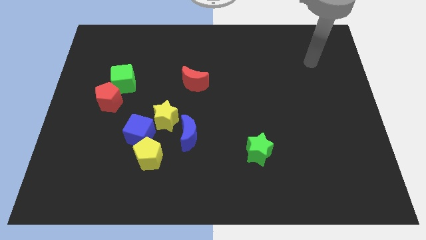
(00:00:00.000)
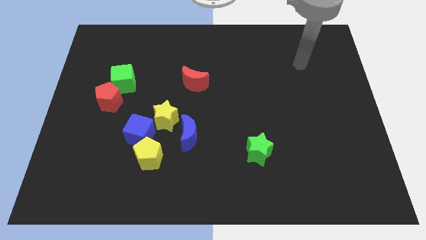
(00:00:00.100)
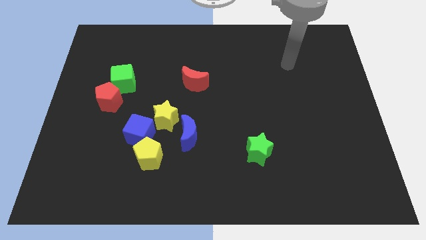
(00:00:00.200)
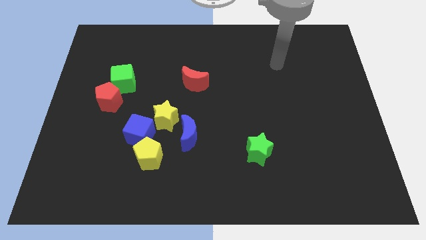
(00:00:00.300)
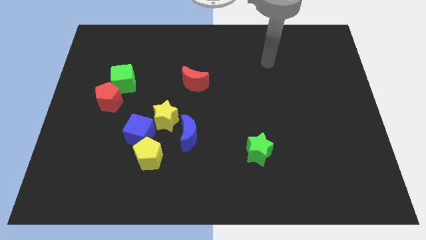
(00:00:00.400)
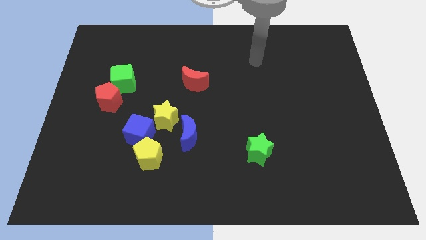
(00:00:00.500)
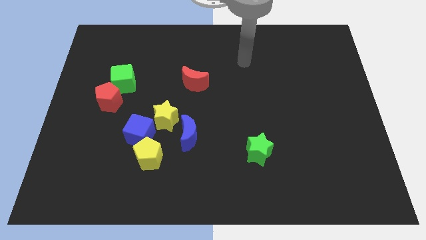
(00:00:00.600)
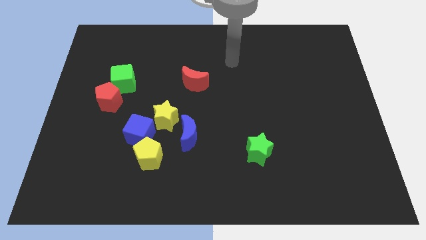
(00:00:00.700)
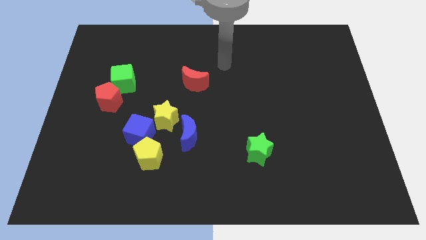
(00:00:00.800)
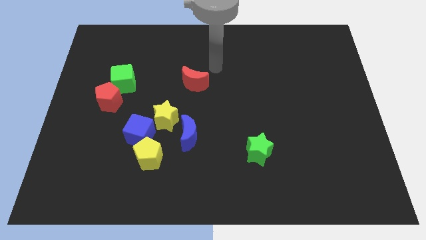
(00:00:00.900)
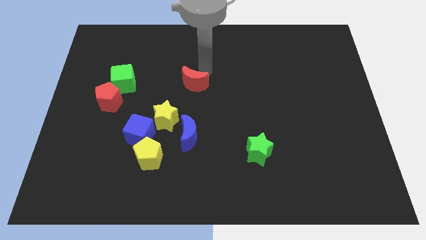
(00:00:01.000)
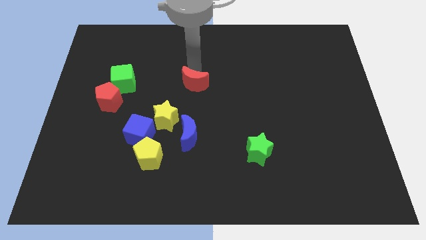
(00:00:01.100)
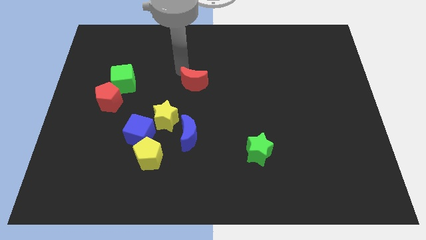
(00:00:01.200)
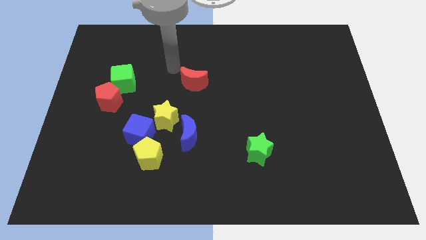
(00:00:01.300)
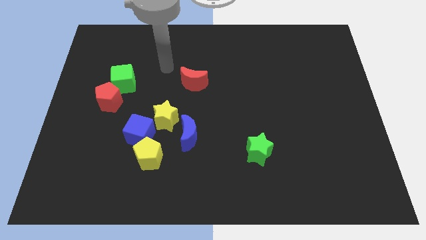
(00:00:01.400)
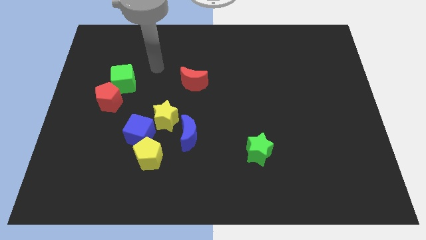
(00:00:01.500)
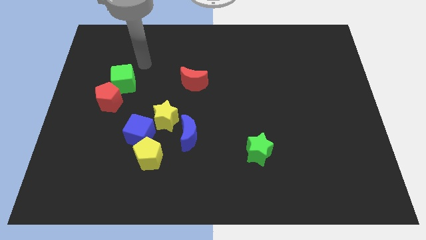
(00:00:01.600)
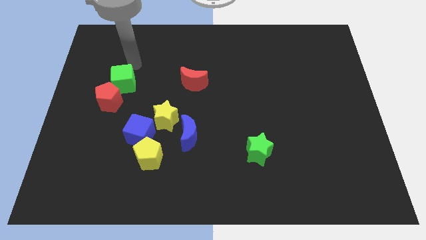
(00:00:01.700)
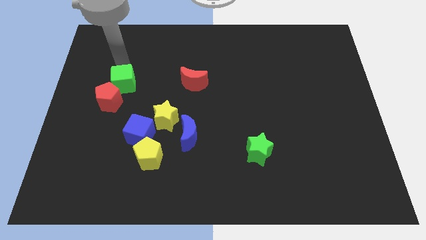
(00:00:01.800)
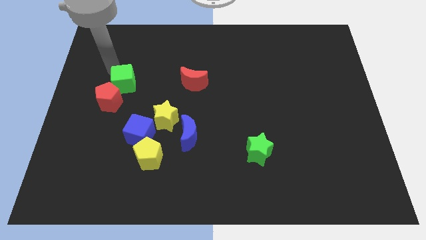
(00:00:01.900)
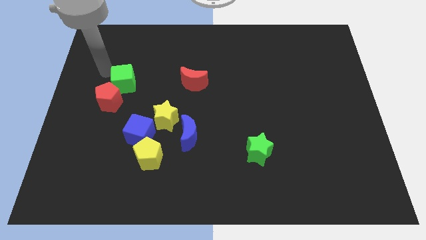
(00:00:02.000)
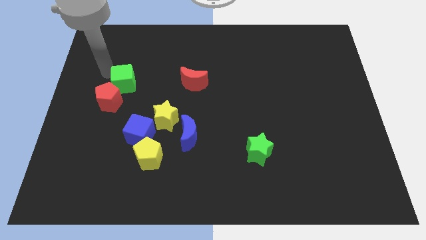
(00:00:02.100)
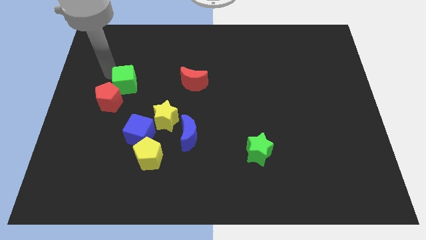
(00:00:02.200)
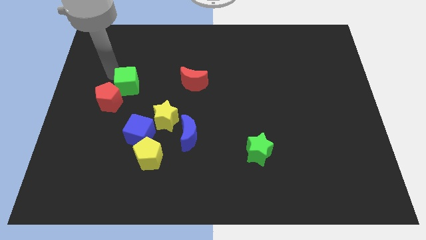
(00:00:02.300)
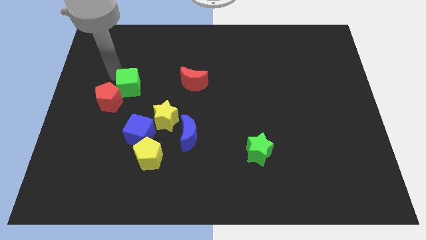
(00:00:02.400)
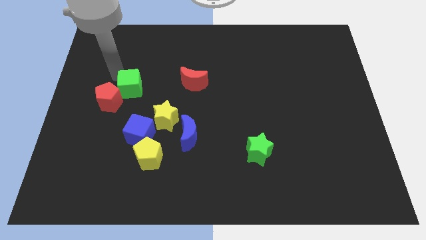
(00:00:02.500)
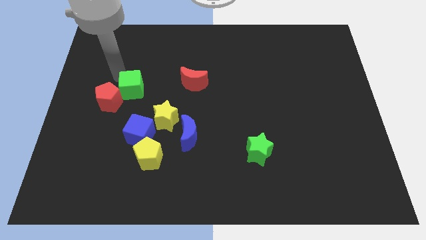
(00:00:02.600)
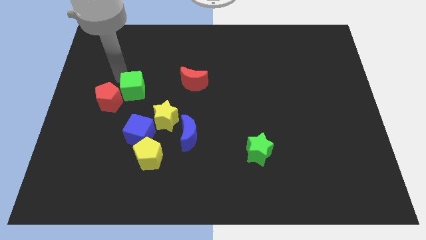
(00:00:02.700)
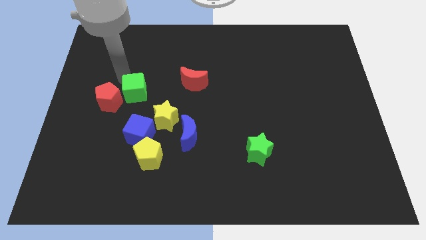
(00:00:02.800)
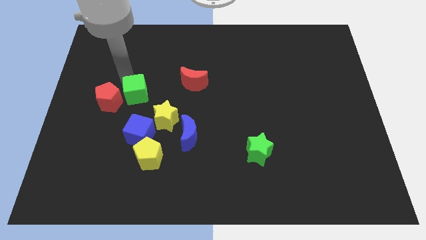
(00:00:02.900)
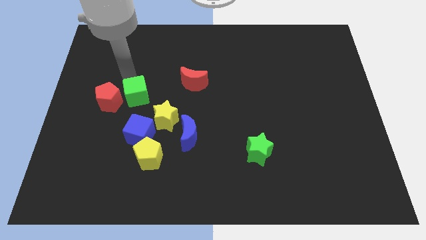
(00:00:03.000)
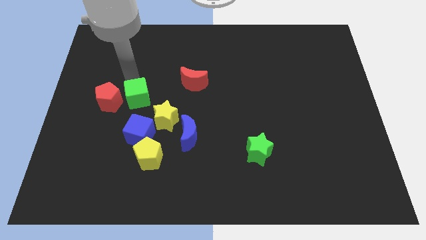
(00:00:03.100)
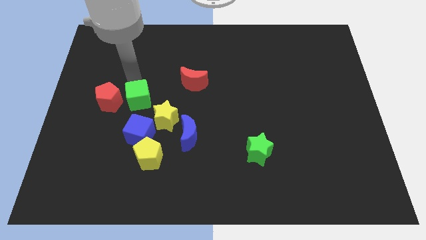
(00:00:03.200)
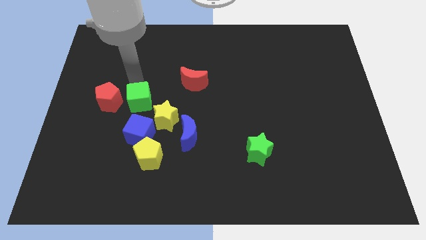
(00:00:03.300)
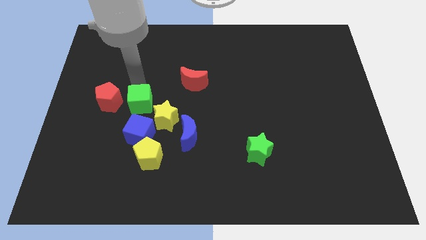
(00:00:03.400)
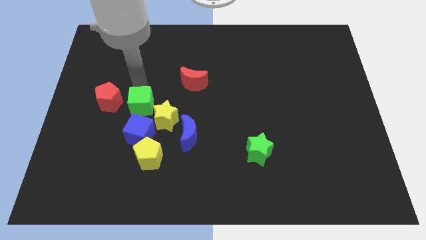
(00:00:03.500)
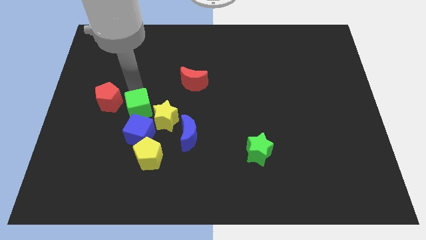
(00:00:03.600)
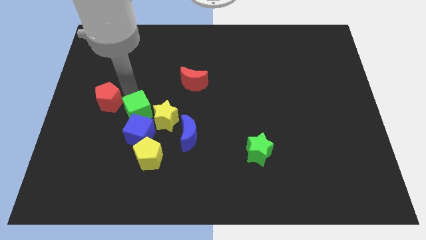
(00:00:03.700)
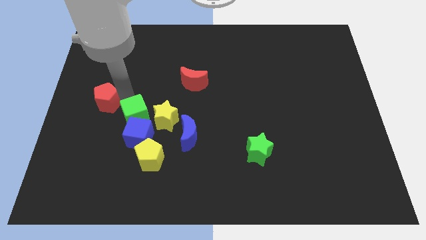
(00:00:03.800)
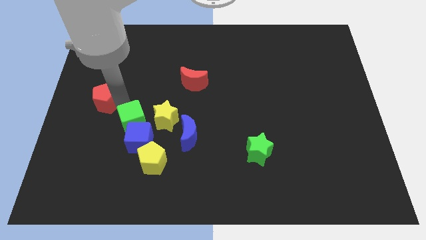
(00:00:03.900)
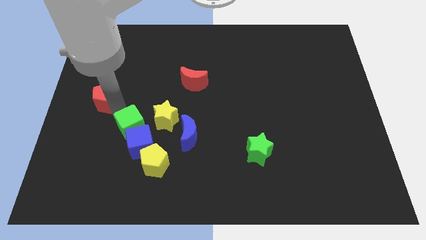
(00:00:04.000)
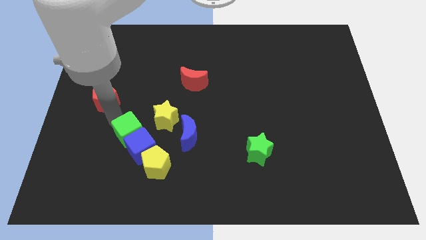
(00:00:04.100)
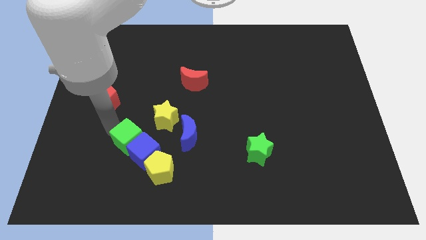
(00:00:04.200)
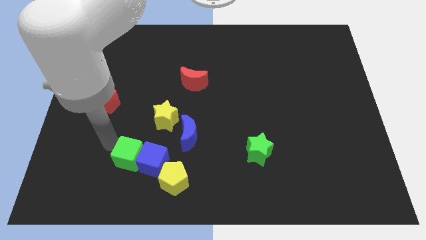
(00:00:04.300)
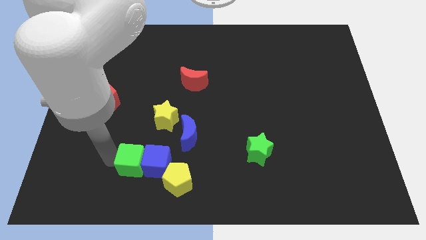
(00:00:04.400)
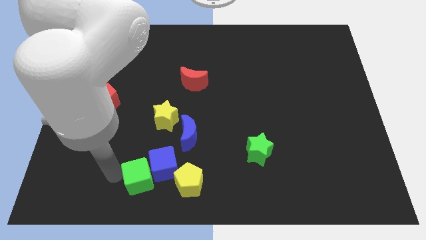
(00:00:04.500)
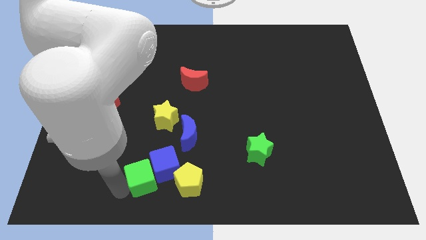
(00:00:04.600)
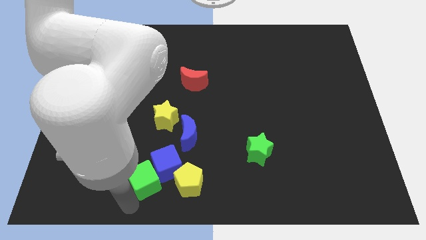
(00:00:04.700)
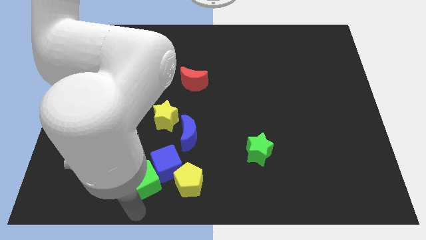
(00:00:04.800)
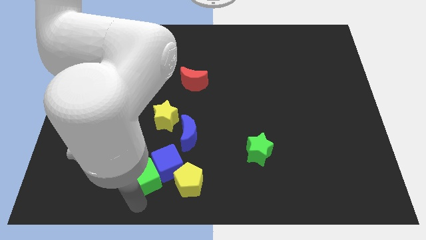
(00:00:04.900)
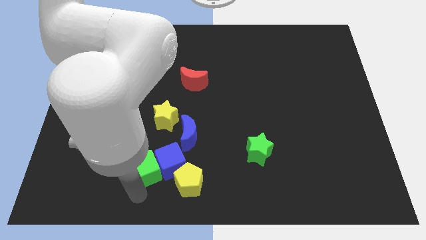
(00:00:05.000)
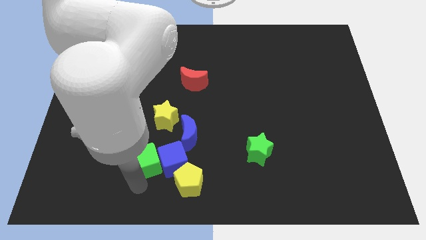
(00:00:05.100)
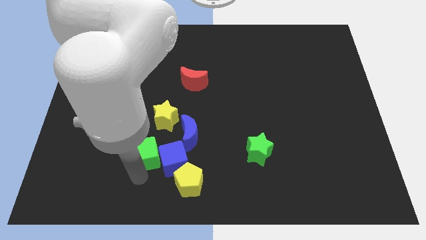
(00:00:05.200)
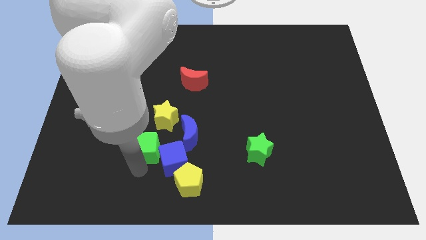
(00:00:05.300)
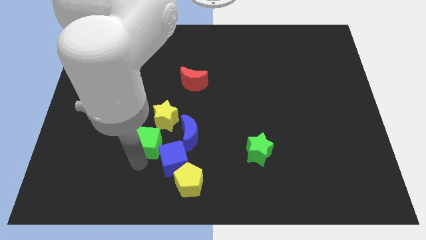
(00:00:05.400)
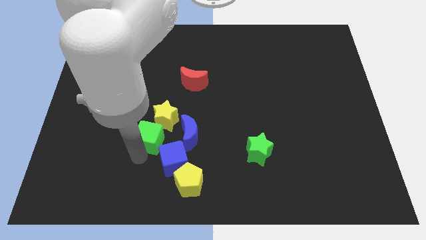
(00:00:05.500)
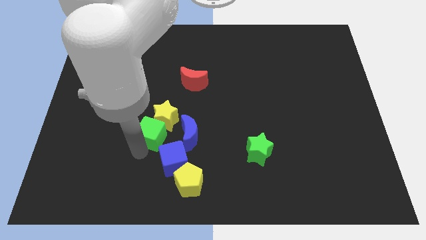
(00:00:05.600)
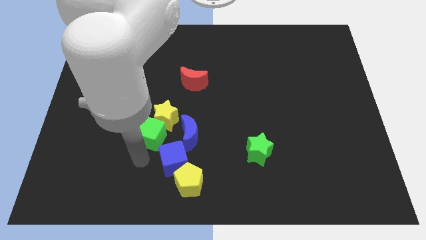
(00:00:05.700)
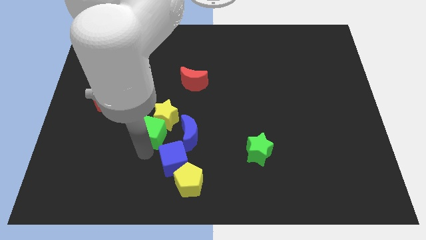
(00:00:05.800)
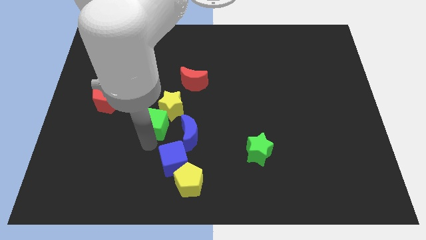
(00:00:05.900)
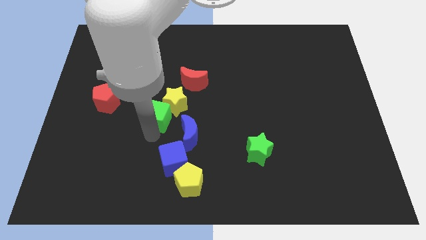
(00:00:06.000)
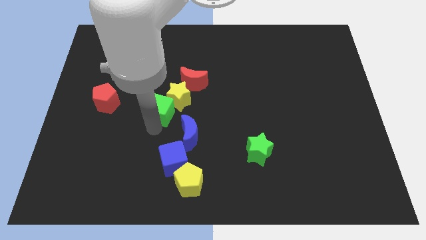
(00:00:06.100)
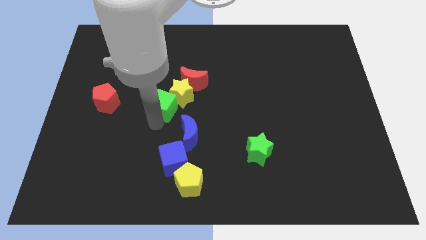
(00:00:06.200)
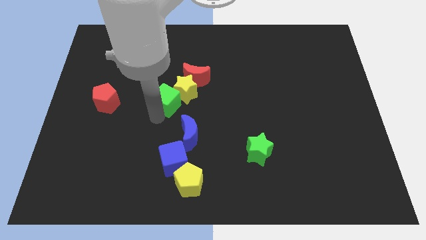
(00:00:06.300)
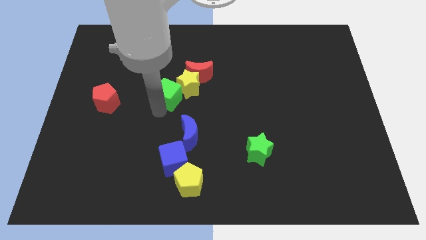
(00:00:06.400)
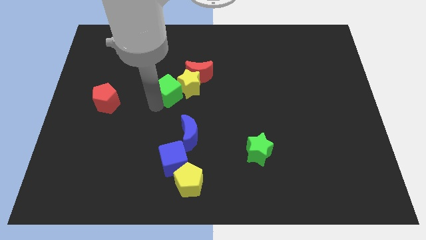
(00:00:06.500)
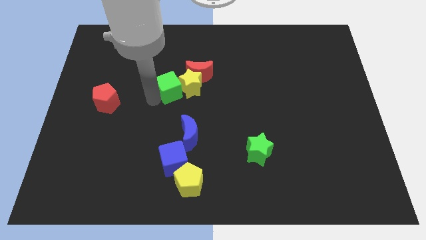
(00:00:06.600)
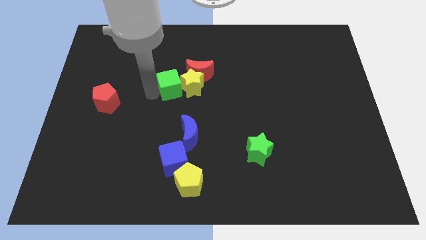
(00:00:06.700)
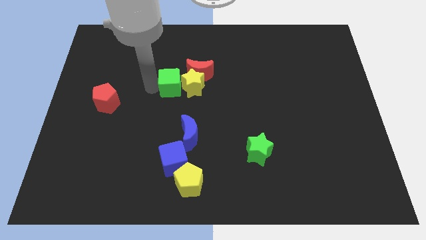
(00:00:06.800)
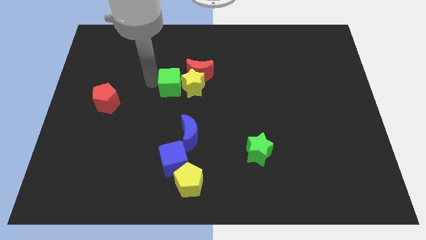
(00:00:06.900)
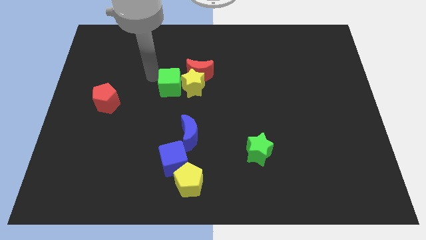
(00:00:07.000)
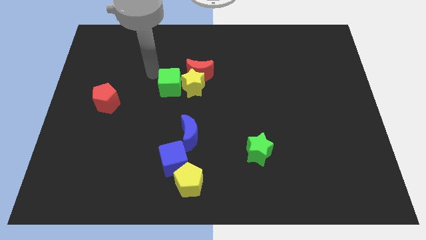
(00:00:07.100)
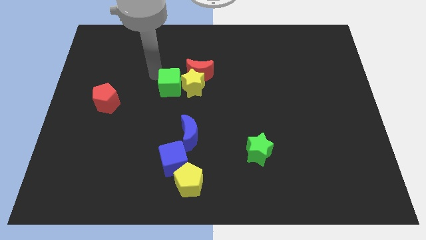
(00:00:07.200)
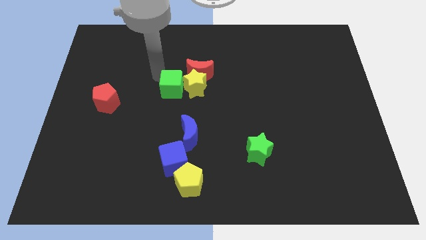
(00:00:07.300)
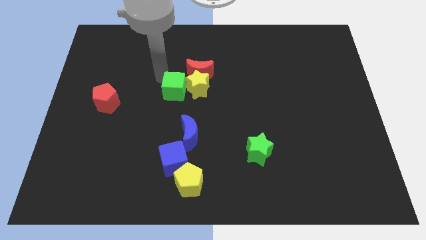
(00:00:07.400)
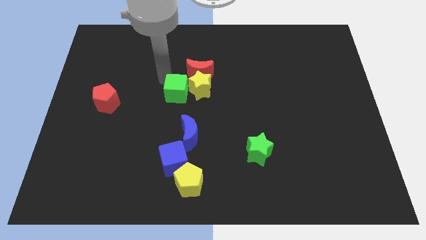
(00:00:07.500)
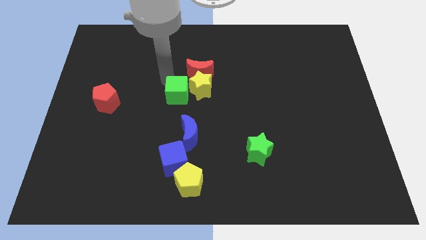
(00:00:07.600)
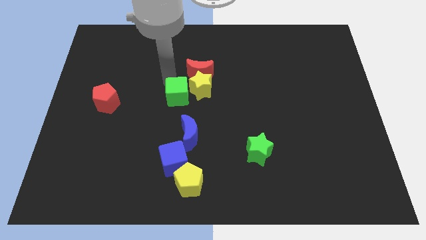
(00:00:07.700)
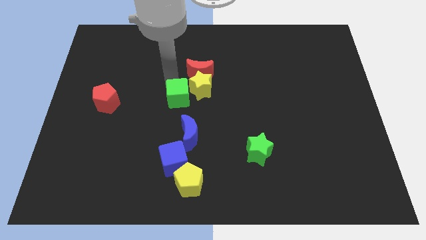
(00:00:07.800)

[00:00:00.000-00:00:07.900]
push the green cube to the bottom side of the red moon
